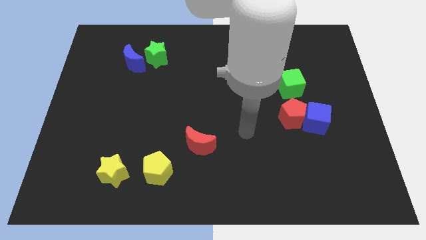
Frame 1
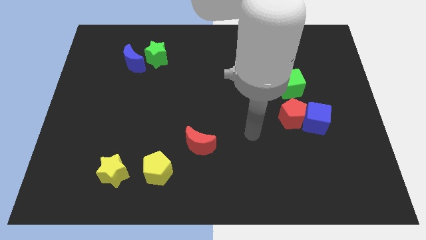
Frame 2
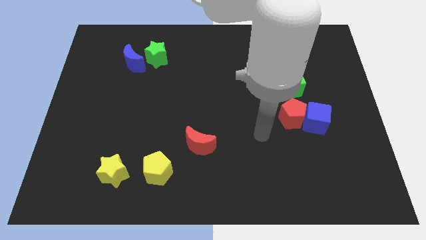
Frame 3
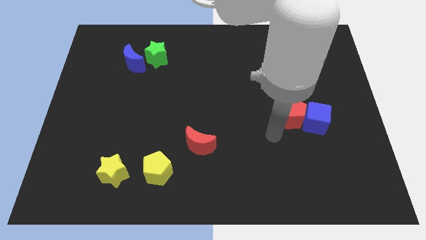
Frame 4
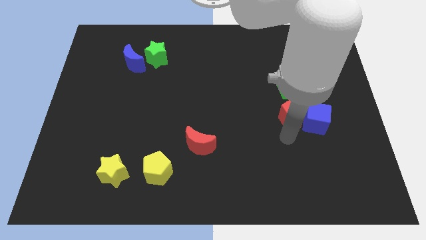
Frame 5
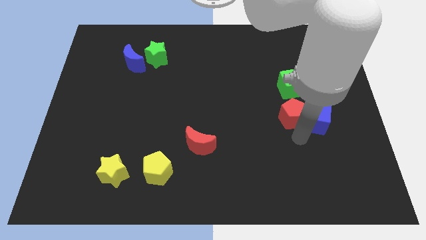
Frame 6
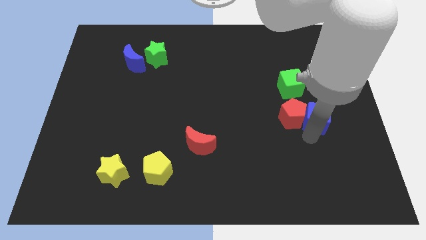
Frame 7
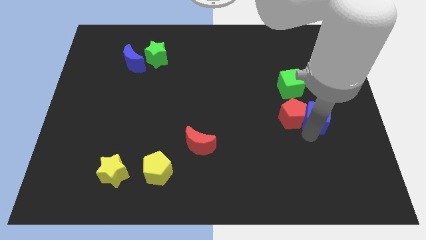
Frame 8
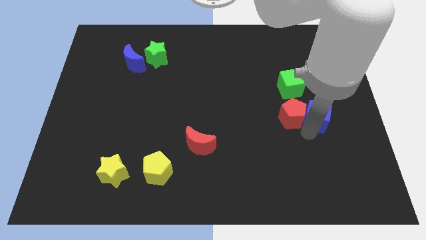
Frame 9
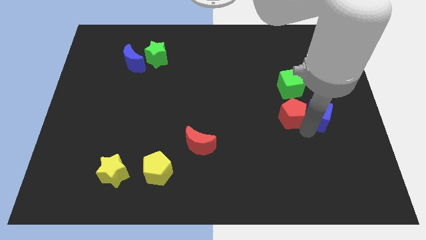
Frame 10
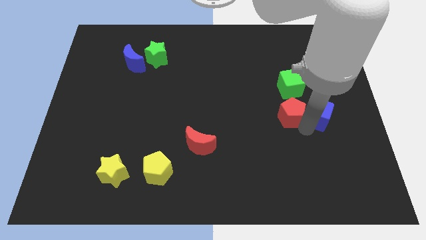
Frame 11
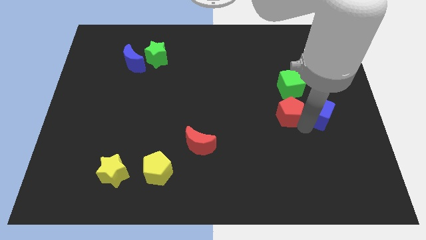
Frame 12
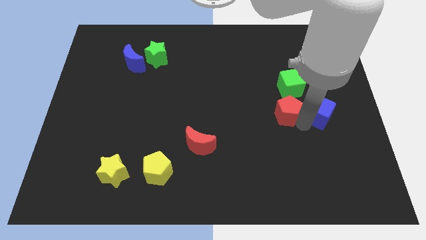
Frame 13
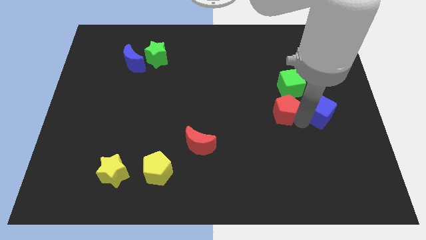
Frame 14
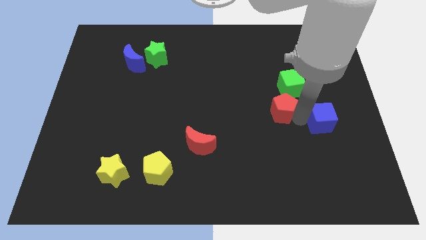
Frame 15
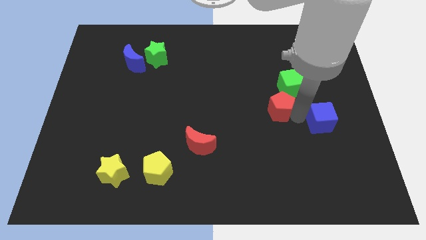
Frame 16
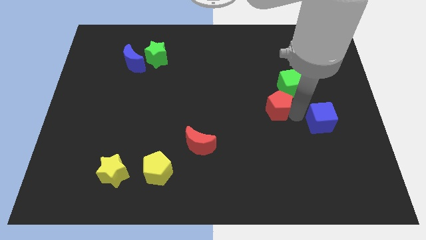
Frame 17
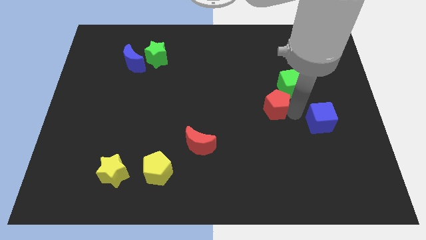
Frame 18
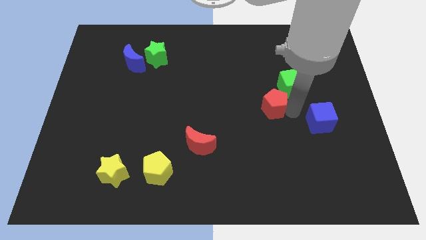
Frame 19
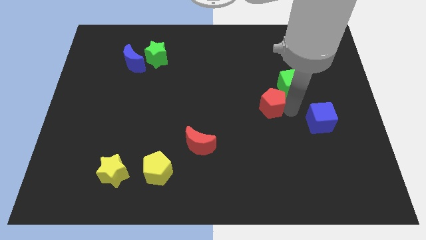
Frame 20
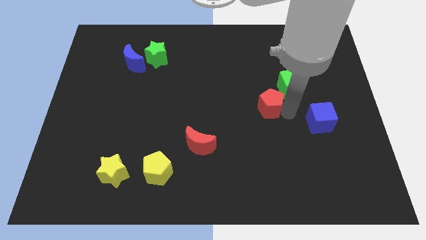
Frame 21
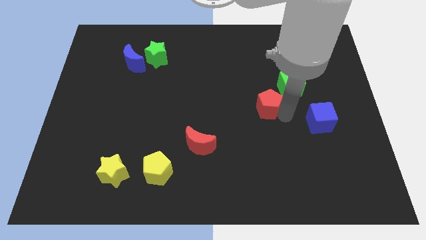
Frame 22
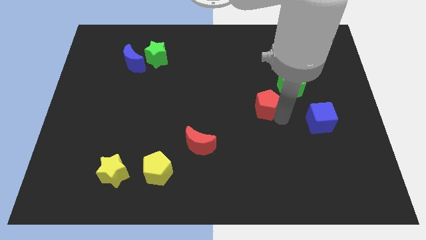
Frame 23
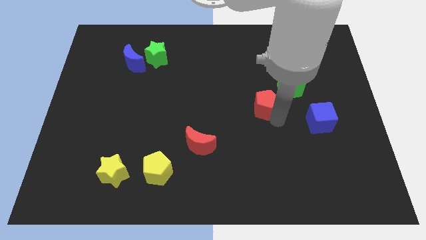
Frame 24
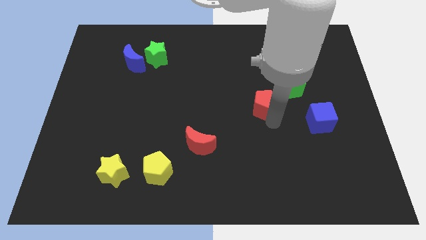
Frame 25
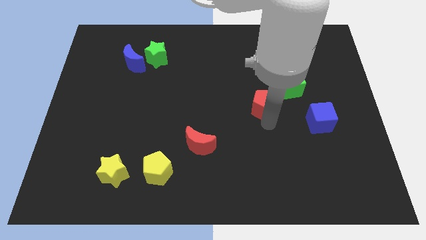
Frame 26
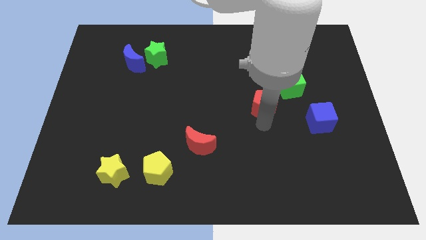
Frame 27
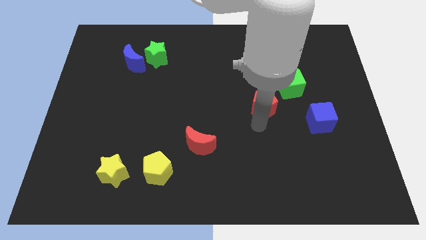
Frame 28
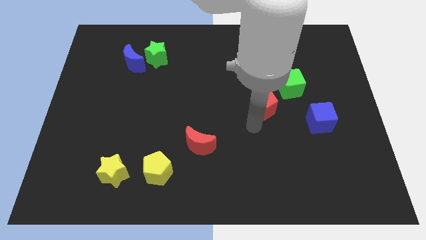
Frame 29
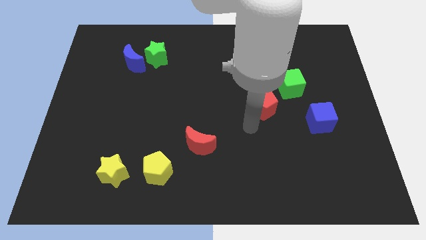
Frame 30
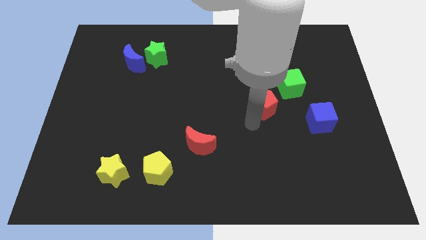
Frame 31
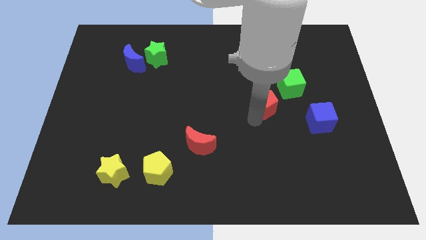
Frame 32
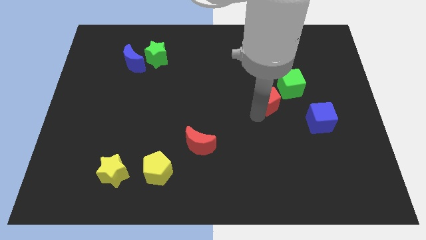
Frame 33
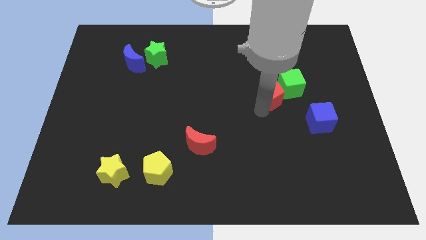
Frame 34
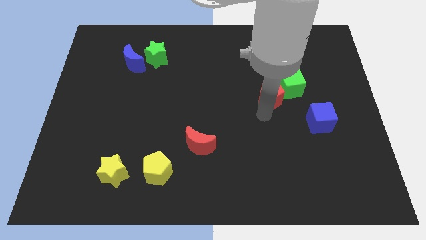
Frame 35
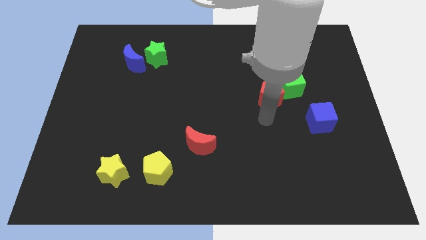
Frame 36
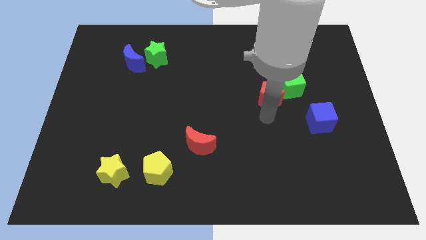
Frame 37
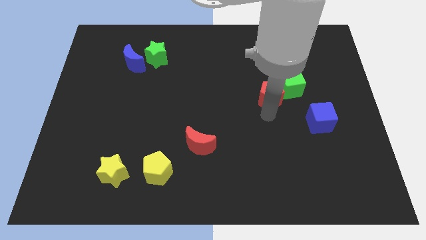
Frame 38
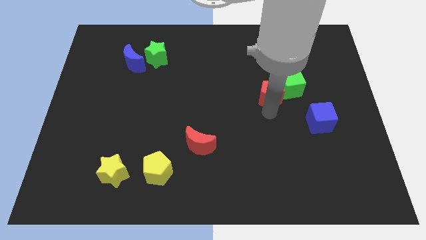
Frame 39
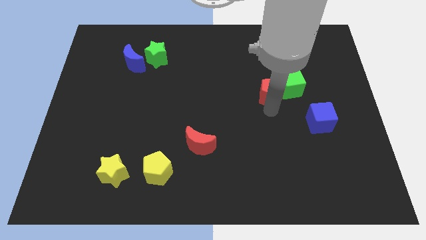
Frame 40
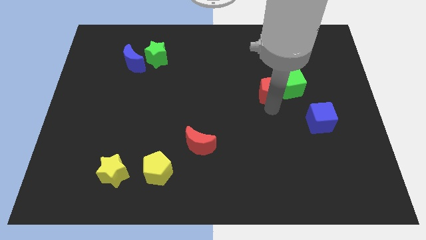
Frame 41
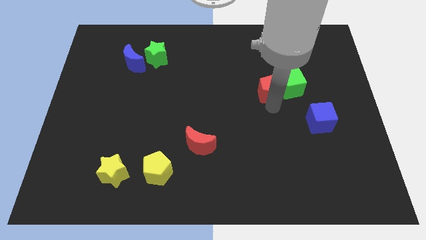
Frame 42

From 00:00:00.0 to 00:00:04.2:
push the red pentagon a bit up

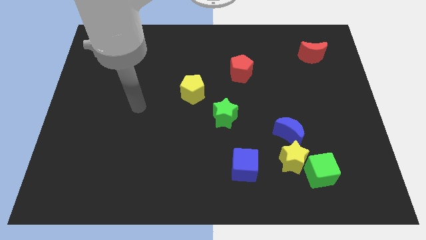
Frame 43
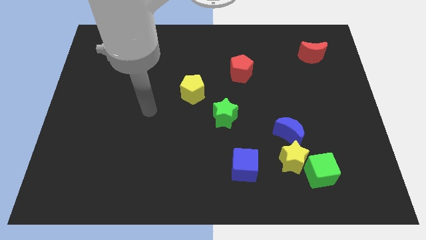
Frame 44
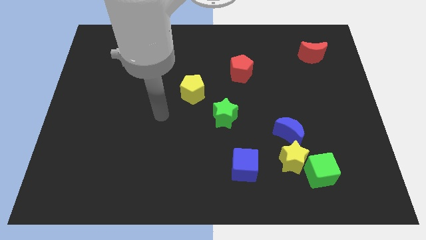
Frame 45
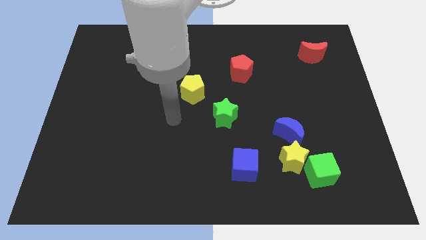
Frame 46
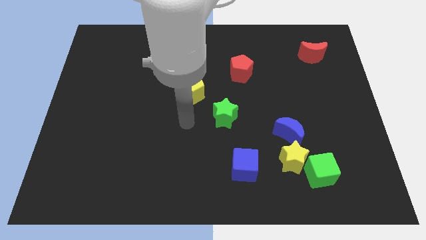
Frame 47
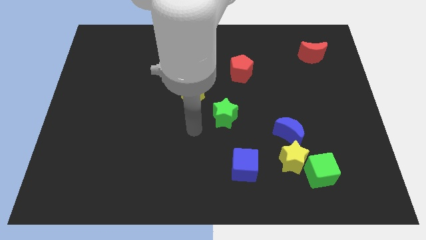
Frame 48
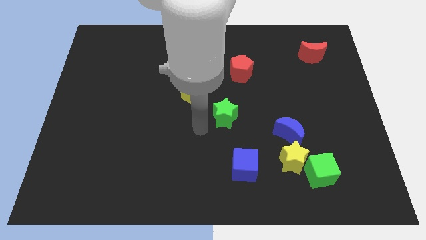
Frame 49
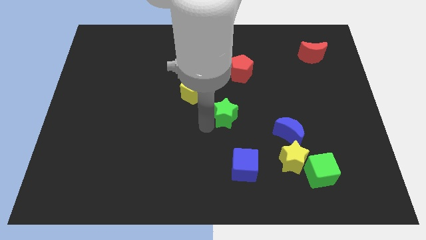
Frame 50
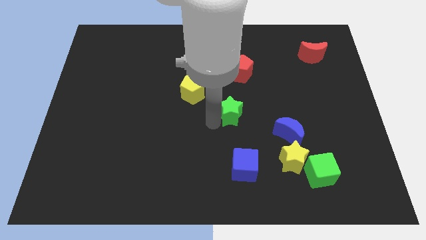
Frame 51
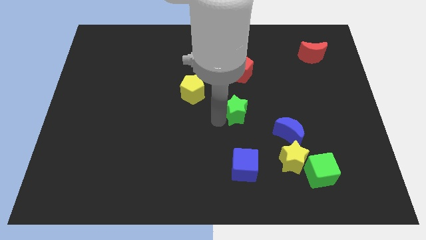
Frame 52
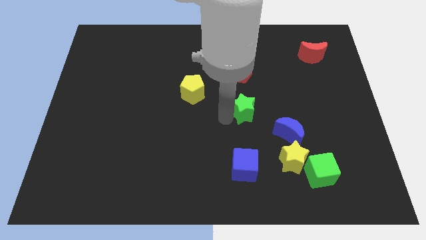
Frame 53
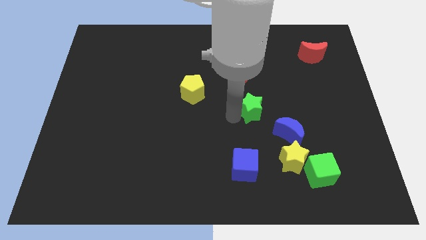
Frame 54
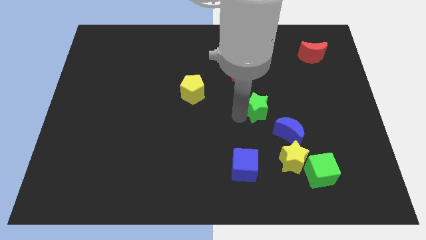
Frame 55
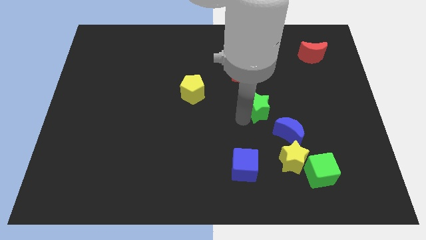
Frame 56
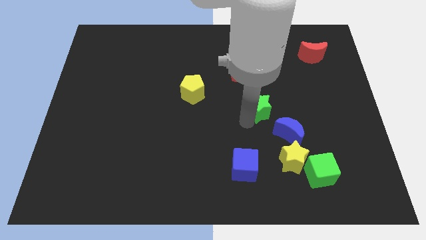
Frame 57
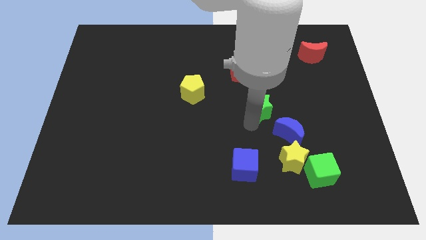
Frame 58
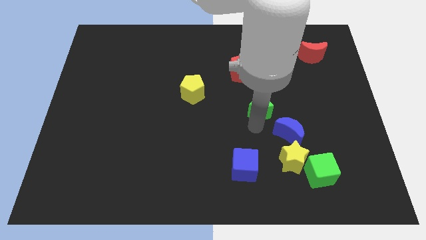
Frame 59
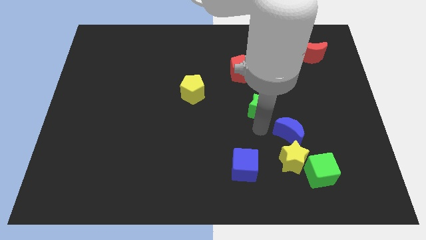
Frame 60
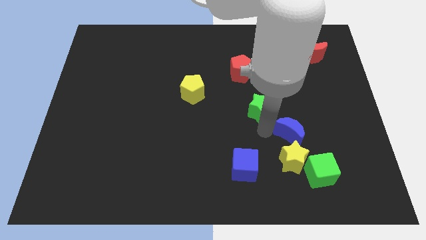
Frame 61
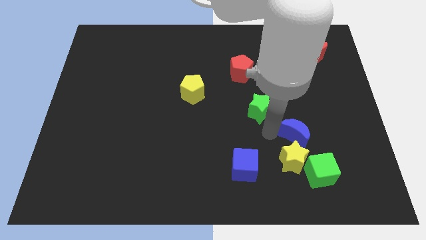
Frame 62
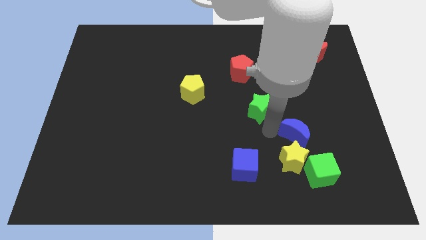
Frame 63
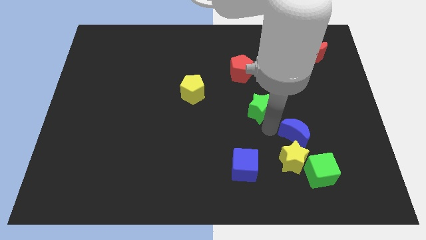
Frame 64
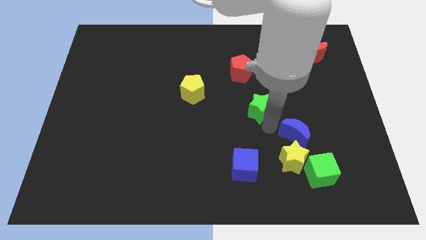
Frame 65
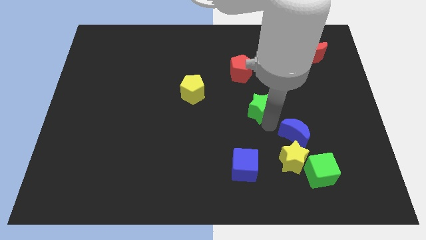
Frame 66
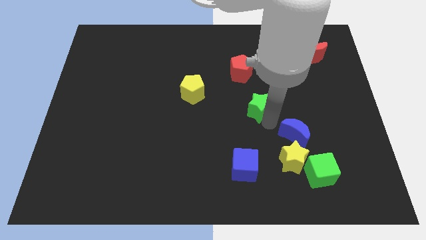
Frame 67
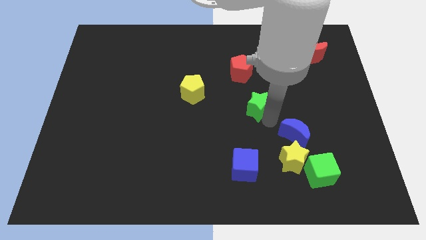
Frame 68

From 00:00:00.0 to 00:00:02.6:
slightly slide the green star upwards and to the right diagonally

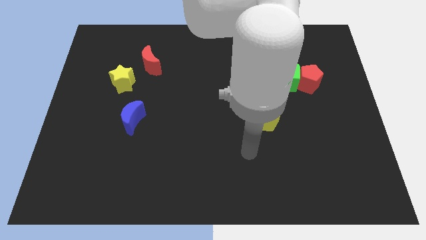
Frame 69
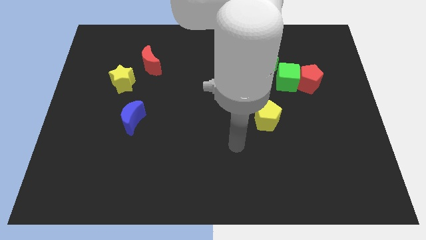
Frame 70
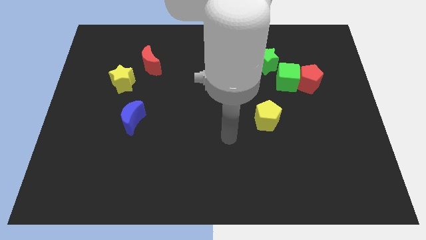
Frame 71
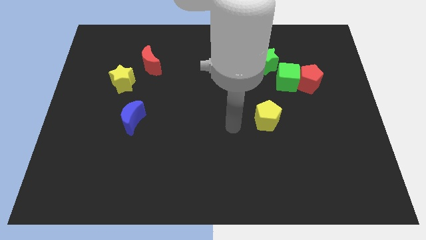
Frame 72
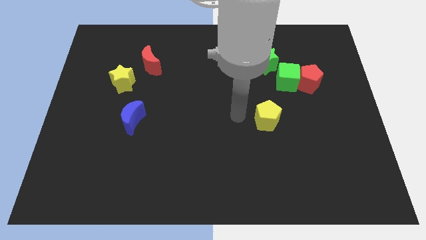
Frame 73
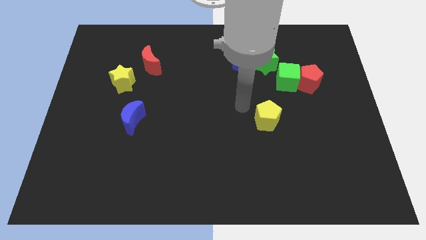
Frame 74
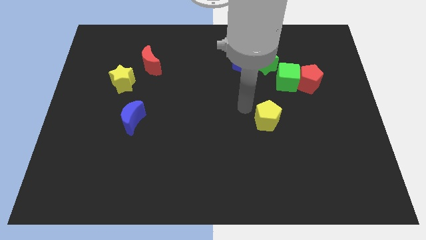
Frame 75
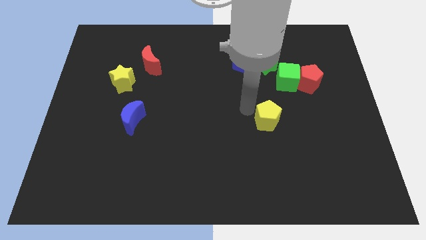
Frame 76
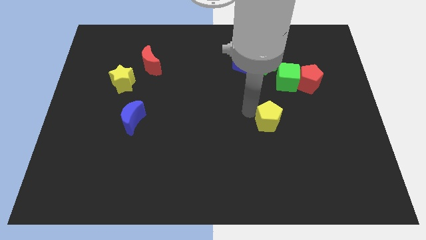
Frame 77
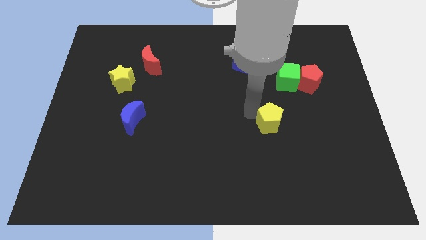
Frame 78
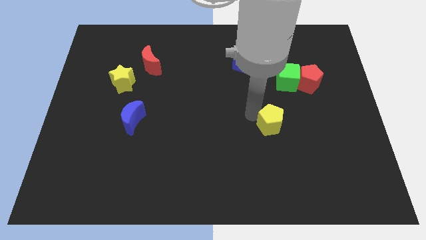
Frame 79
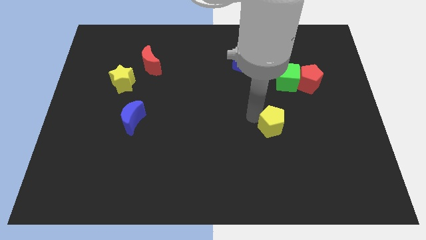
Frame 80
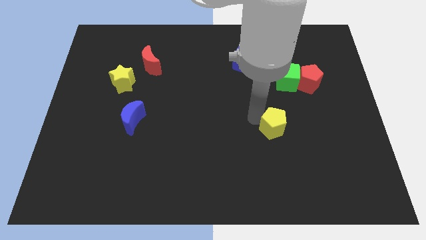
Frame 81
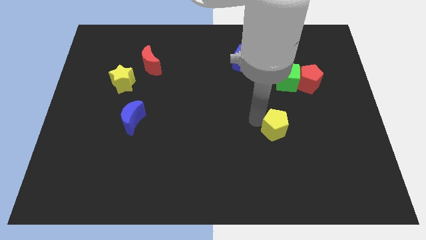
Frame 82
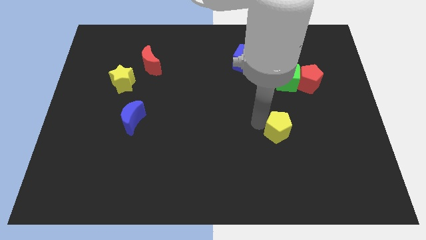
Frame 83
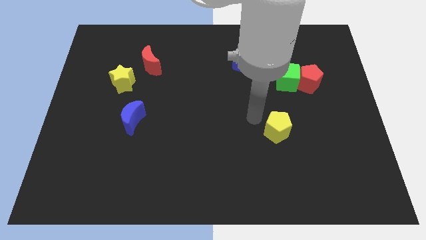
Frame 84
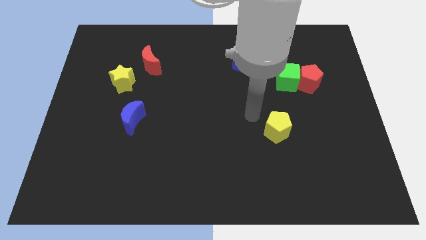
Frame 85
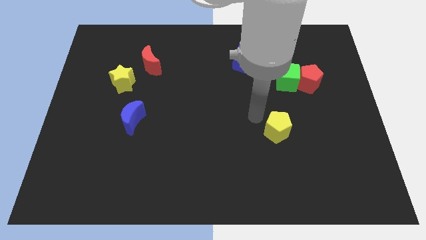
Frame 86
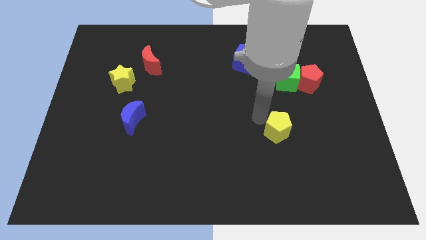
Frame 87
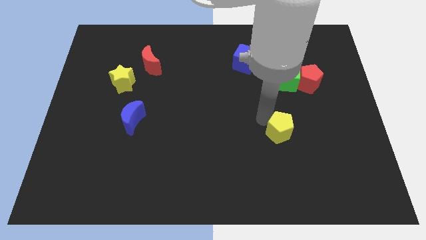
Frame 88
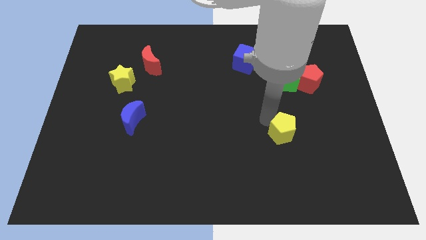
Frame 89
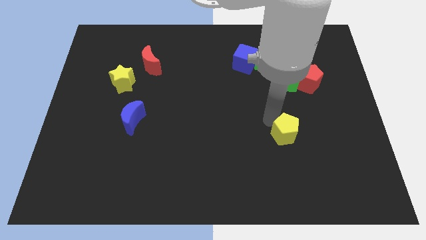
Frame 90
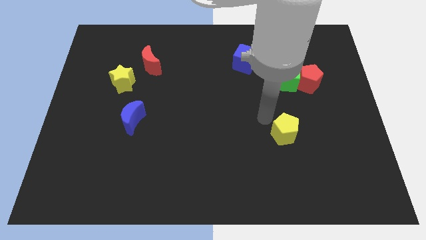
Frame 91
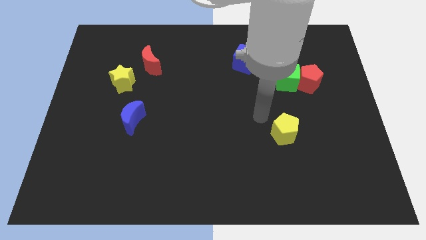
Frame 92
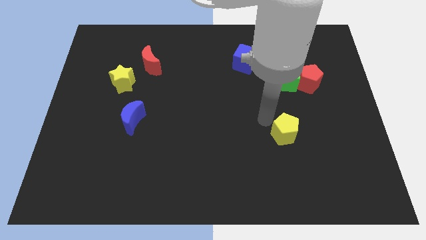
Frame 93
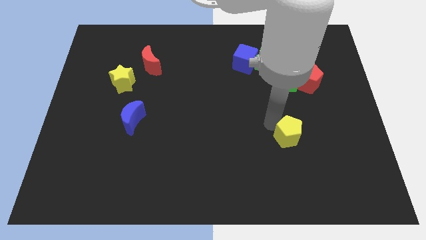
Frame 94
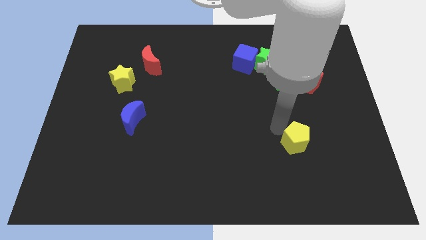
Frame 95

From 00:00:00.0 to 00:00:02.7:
slightly move the yellow pentagon diagonally downwards and to the right
